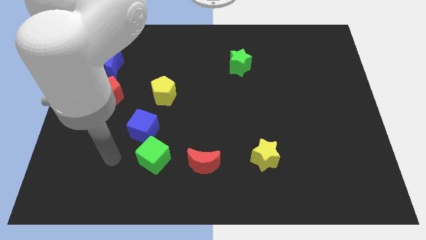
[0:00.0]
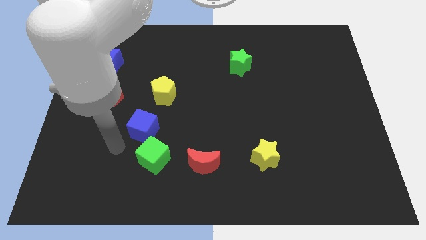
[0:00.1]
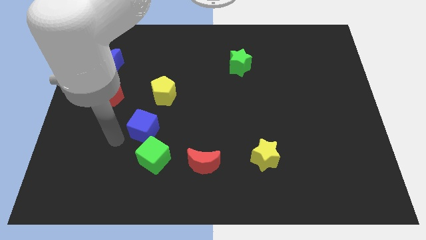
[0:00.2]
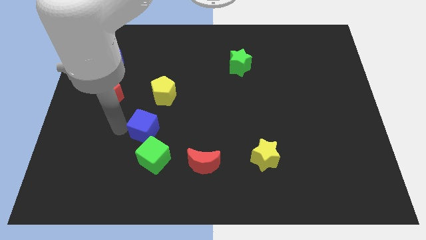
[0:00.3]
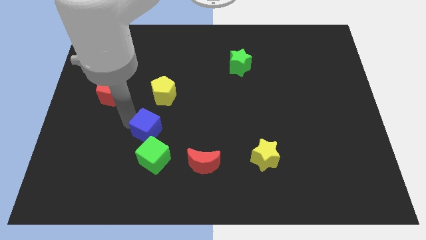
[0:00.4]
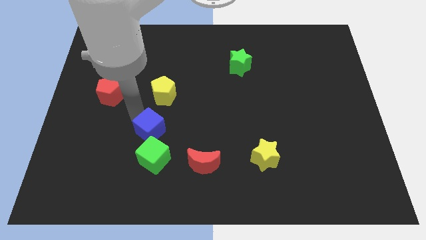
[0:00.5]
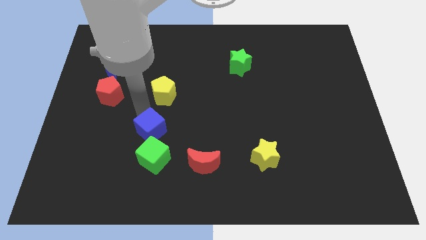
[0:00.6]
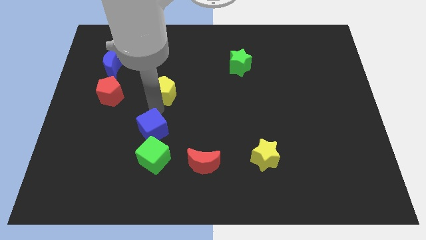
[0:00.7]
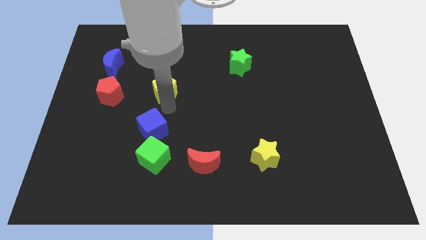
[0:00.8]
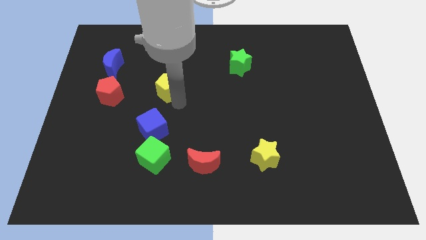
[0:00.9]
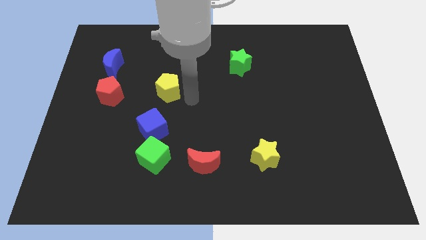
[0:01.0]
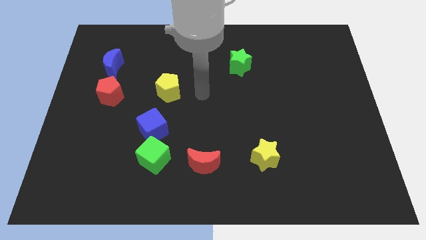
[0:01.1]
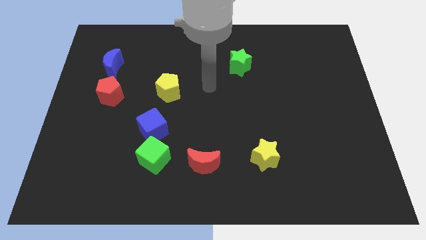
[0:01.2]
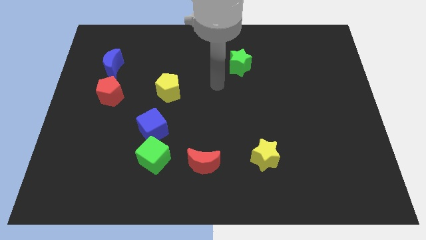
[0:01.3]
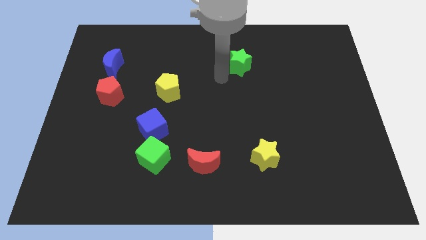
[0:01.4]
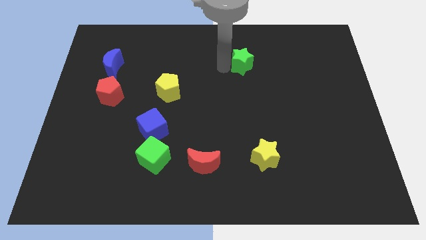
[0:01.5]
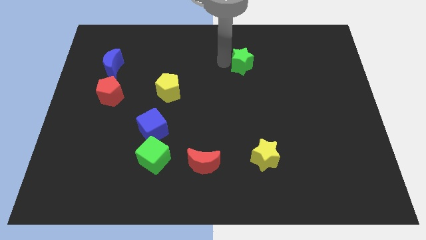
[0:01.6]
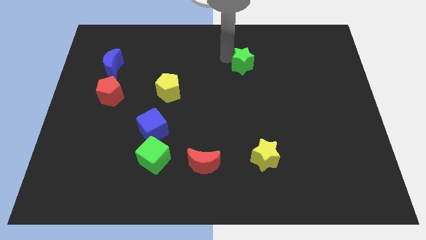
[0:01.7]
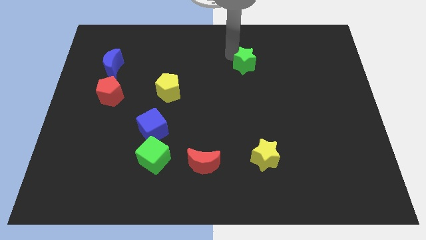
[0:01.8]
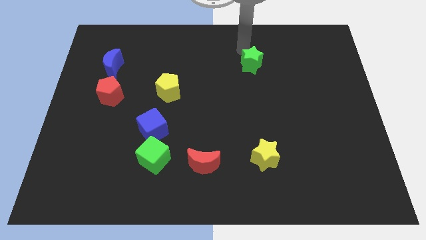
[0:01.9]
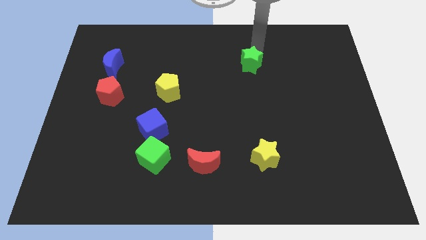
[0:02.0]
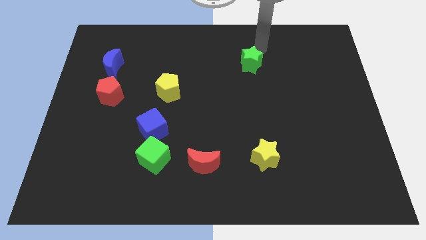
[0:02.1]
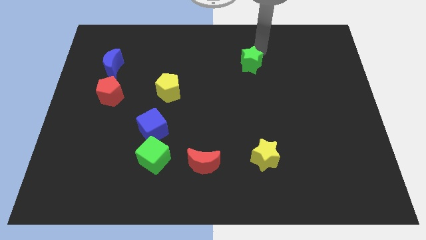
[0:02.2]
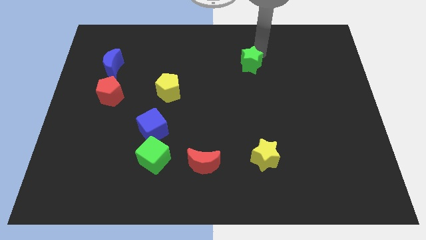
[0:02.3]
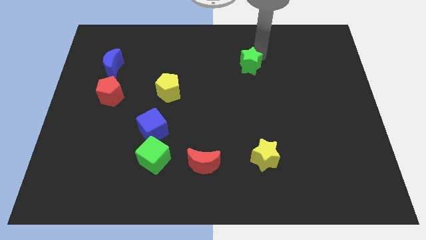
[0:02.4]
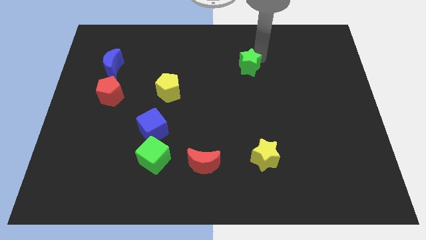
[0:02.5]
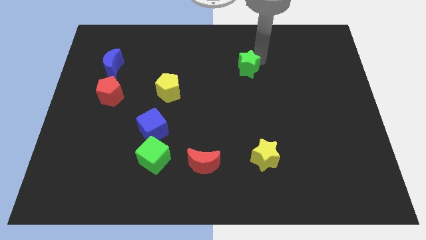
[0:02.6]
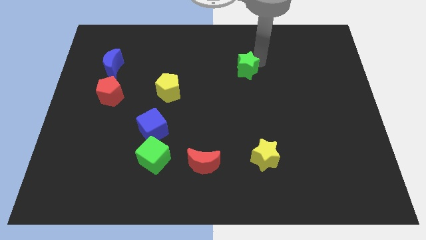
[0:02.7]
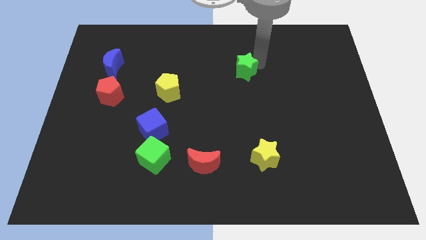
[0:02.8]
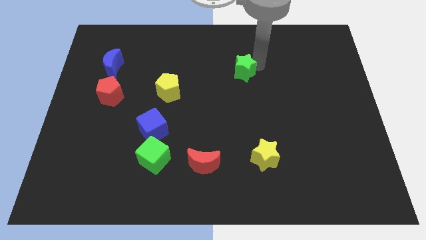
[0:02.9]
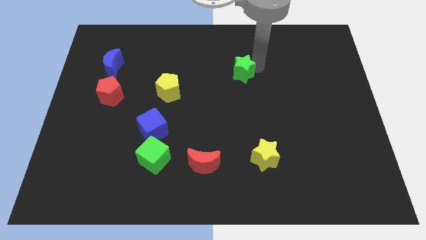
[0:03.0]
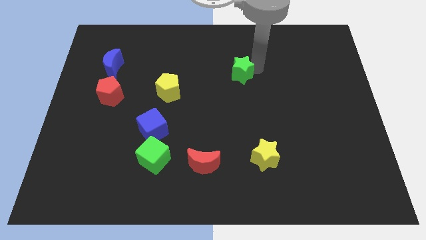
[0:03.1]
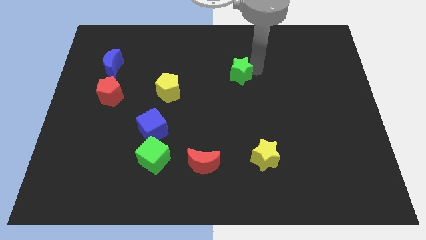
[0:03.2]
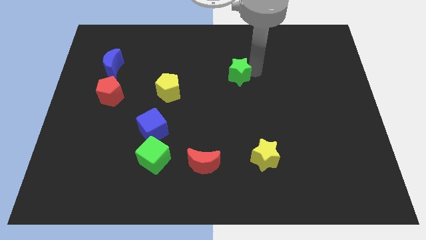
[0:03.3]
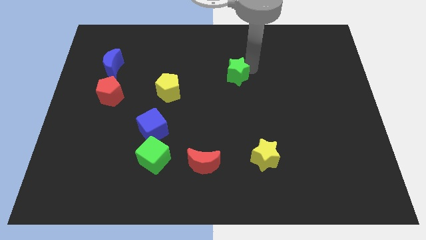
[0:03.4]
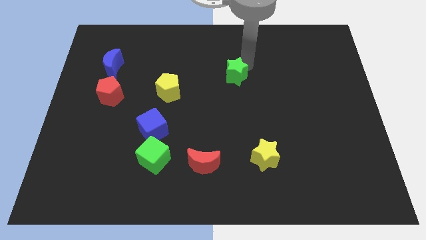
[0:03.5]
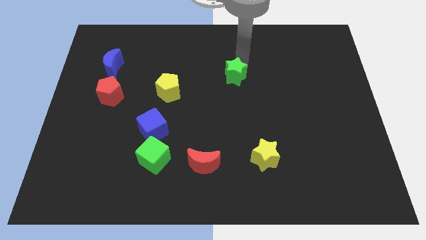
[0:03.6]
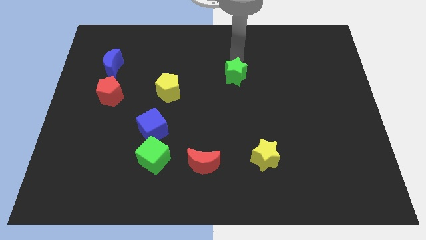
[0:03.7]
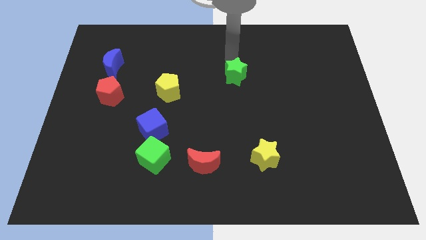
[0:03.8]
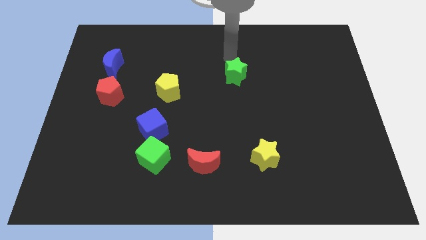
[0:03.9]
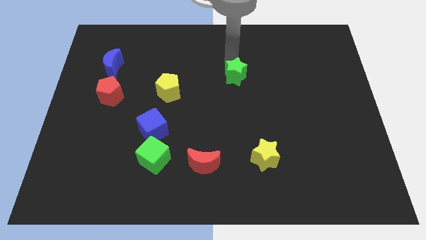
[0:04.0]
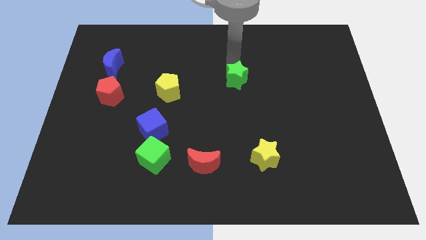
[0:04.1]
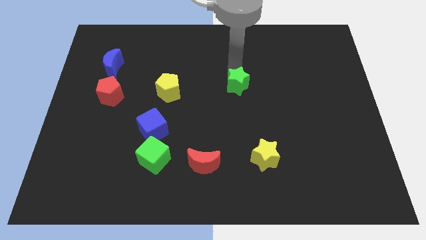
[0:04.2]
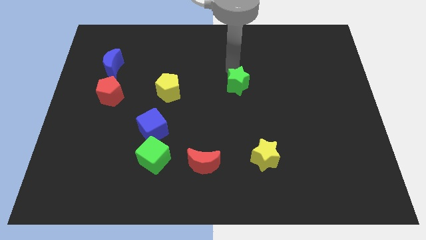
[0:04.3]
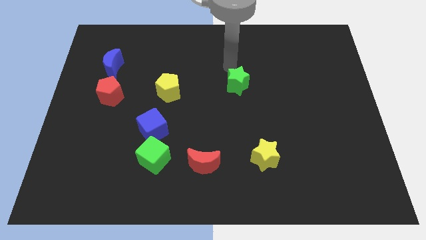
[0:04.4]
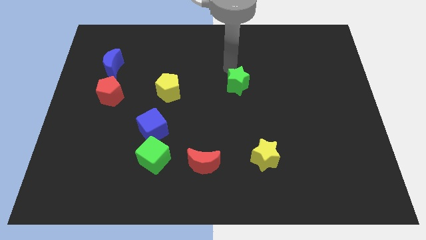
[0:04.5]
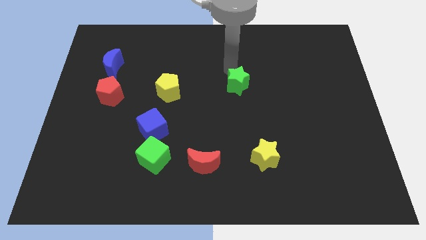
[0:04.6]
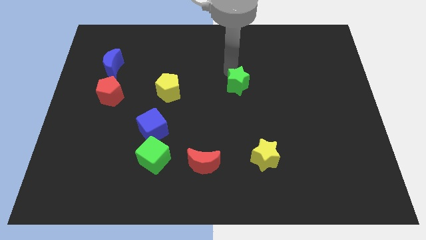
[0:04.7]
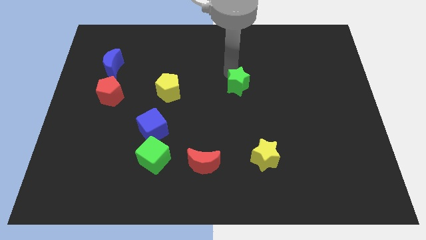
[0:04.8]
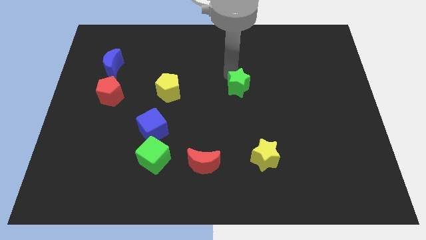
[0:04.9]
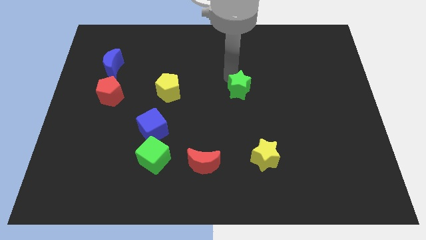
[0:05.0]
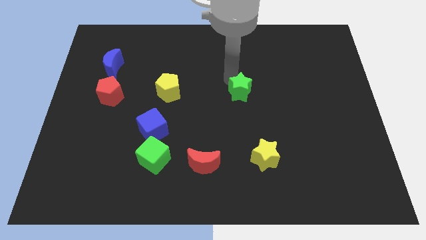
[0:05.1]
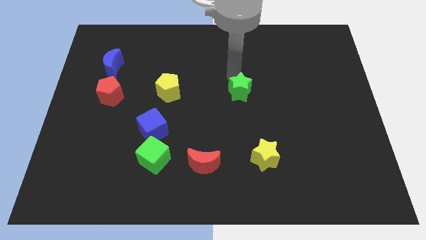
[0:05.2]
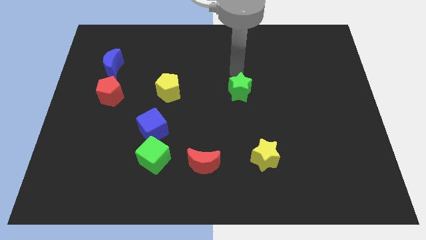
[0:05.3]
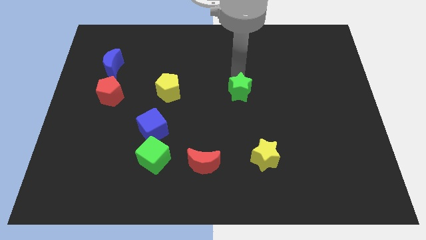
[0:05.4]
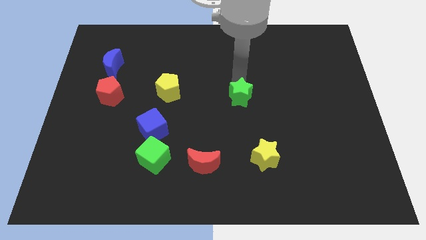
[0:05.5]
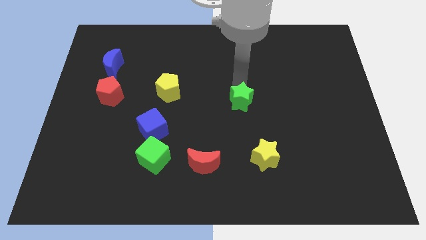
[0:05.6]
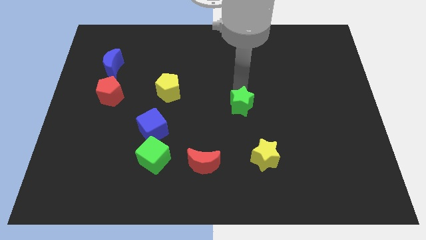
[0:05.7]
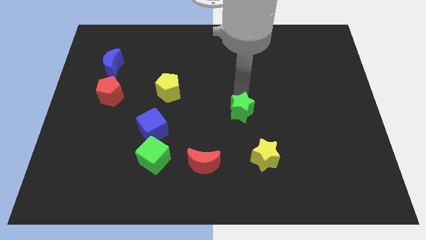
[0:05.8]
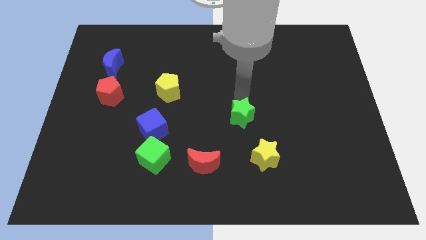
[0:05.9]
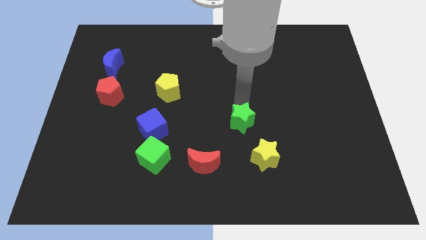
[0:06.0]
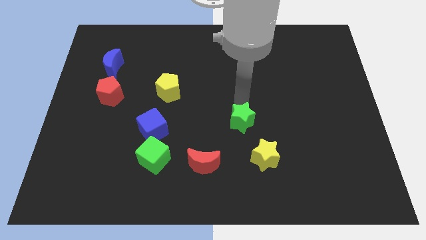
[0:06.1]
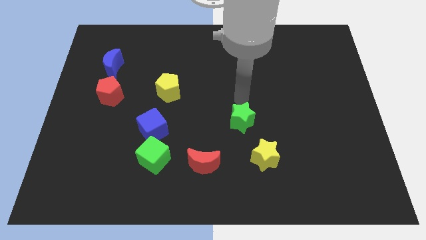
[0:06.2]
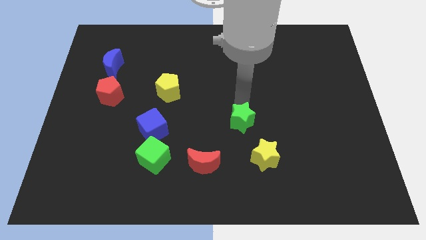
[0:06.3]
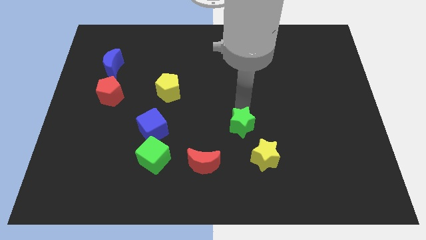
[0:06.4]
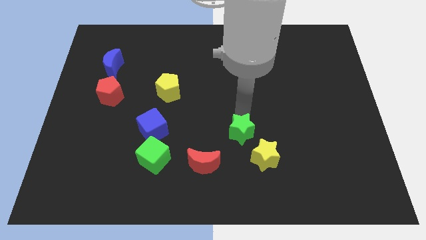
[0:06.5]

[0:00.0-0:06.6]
push the green star down

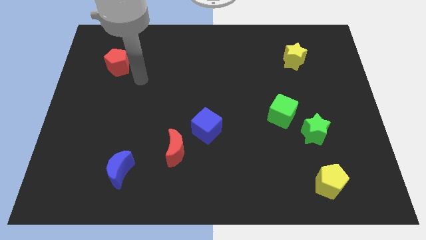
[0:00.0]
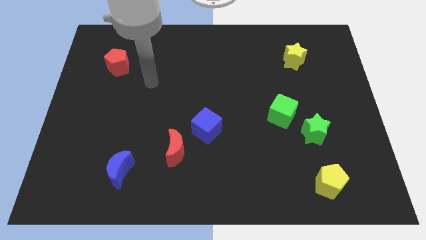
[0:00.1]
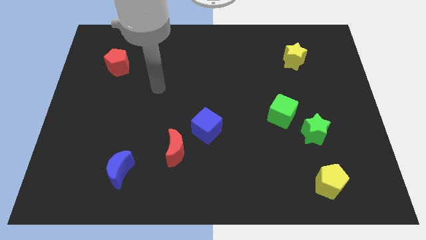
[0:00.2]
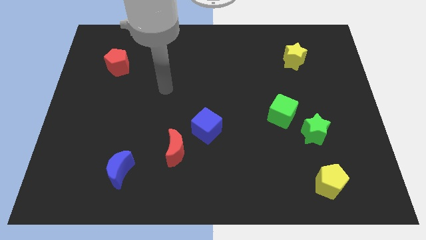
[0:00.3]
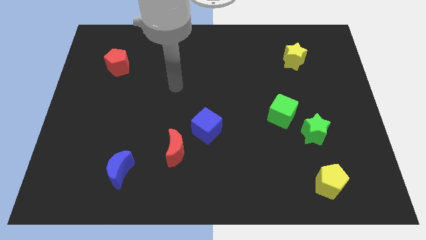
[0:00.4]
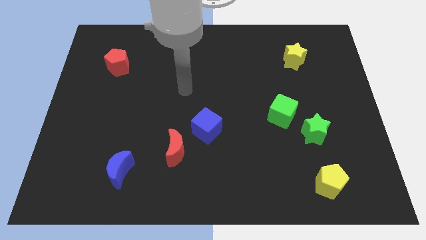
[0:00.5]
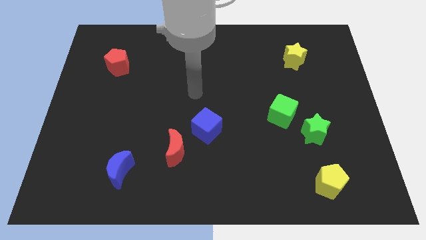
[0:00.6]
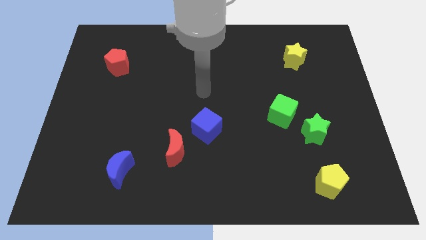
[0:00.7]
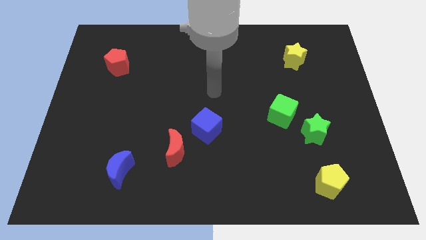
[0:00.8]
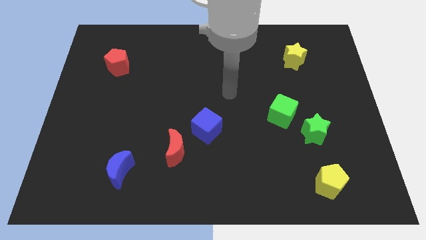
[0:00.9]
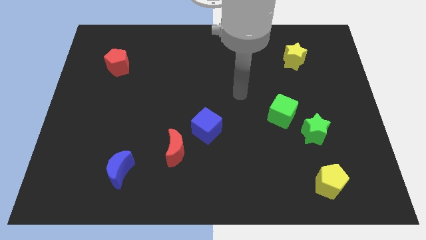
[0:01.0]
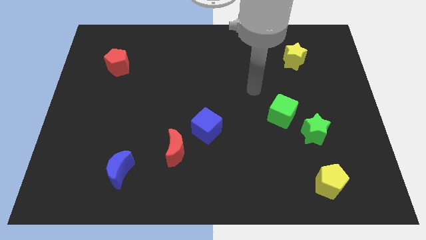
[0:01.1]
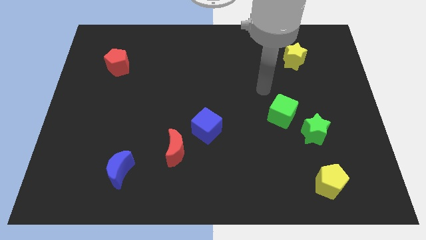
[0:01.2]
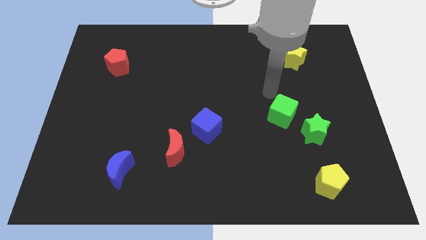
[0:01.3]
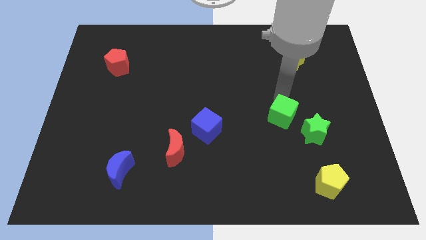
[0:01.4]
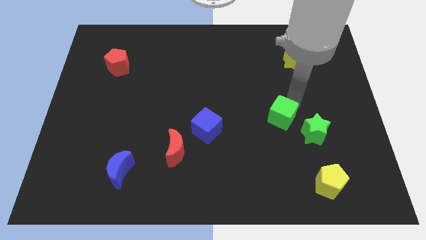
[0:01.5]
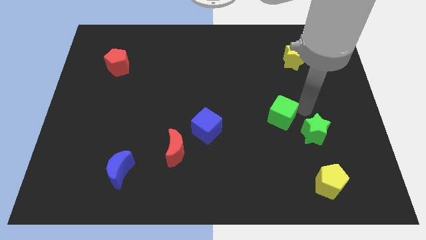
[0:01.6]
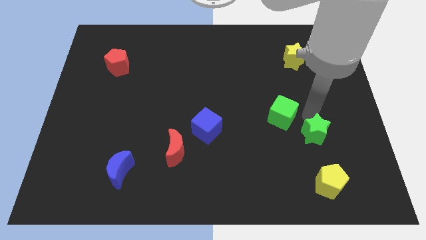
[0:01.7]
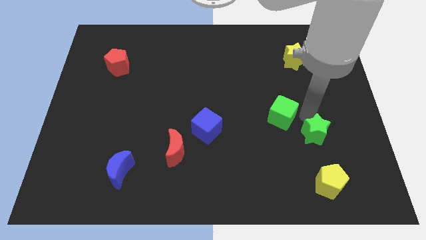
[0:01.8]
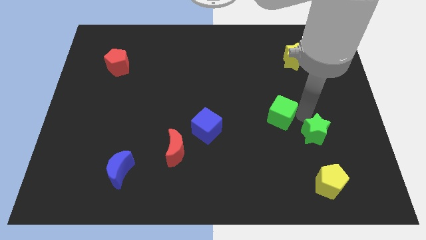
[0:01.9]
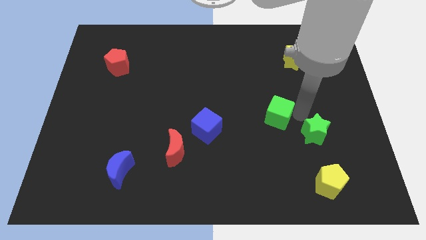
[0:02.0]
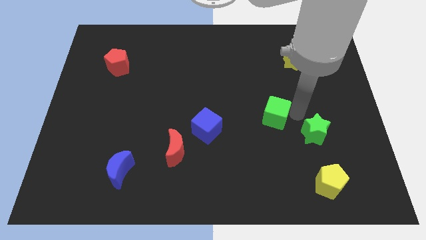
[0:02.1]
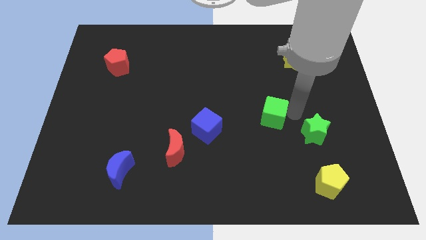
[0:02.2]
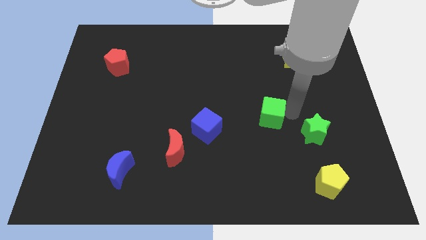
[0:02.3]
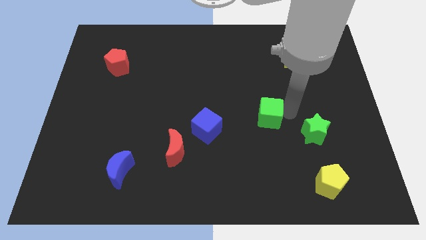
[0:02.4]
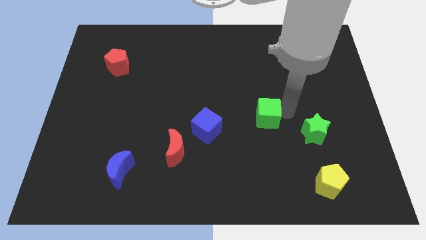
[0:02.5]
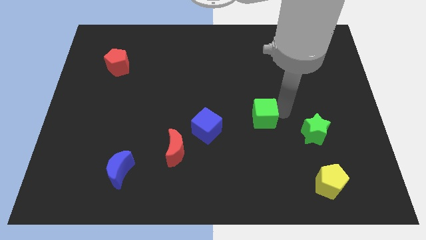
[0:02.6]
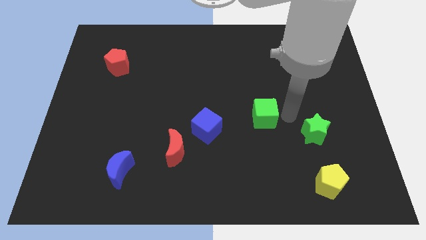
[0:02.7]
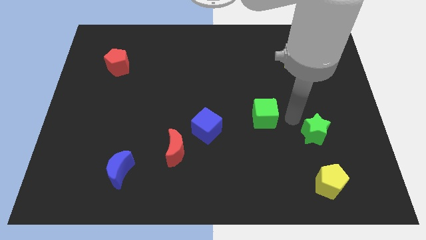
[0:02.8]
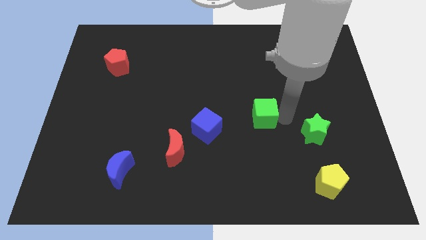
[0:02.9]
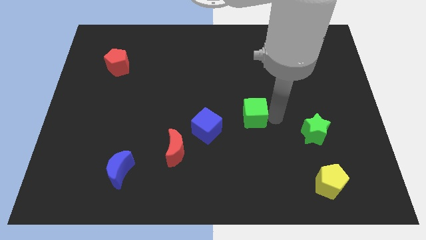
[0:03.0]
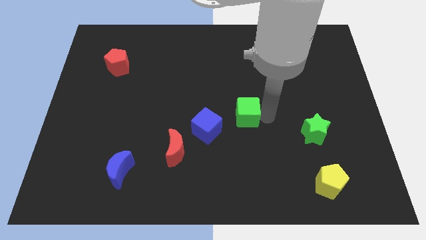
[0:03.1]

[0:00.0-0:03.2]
move the green cube left a bit
